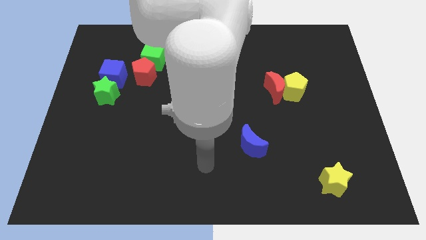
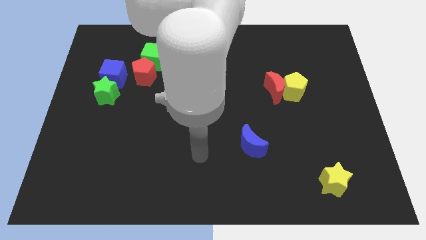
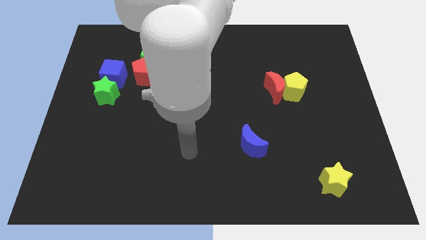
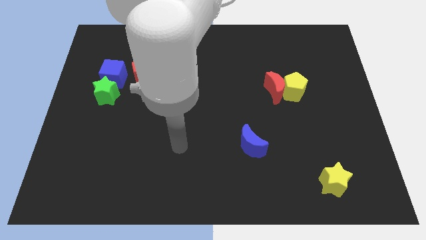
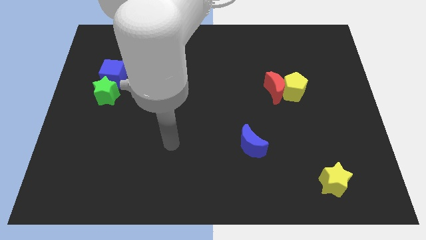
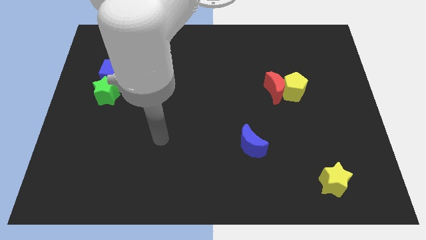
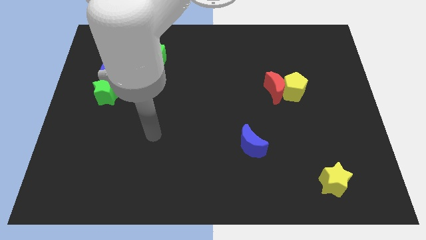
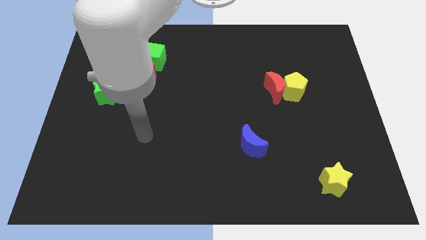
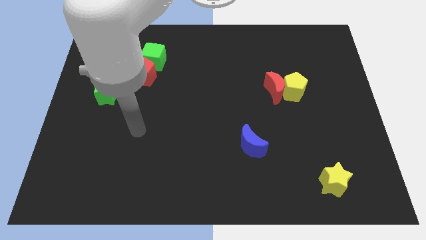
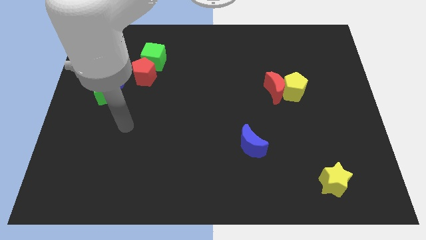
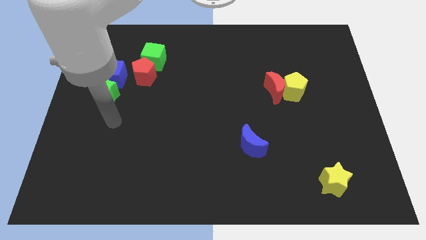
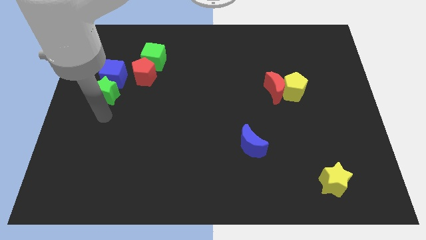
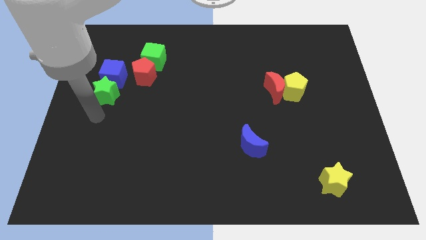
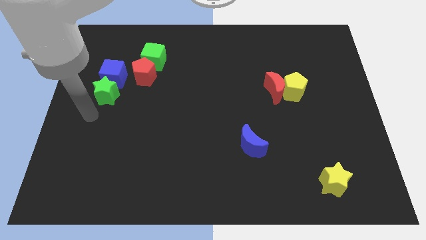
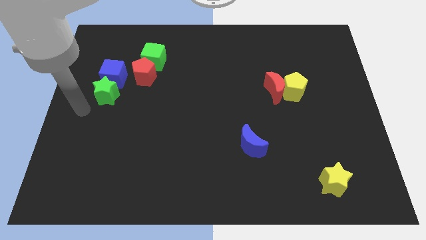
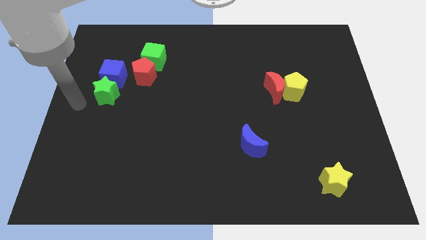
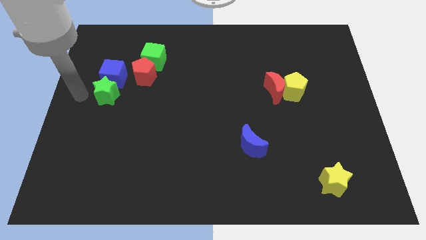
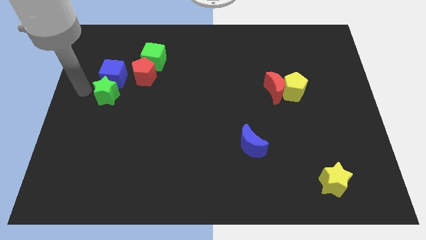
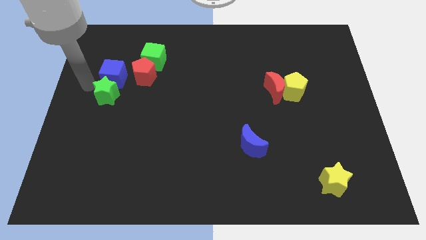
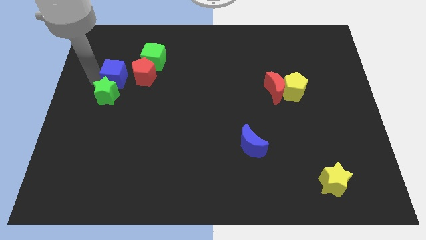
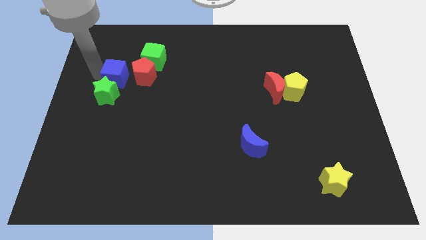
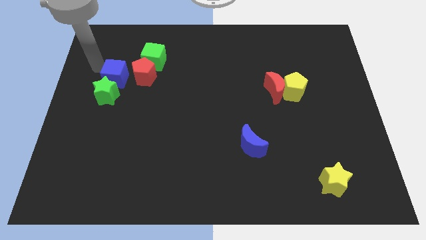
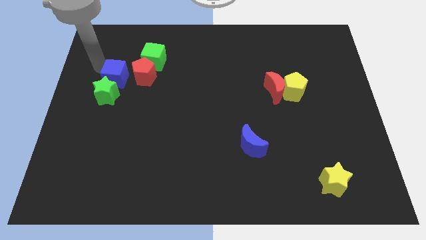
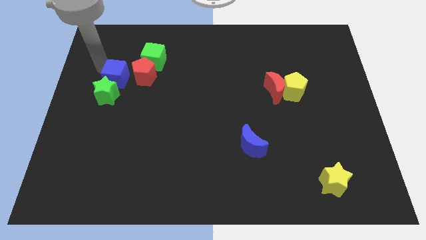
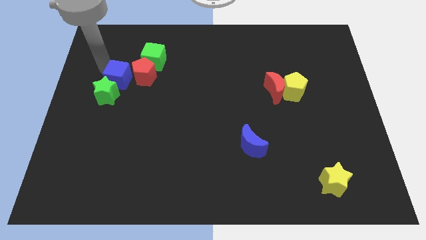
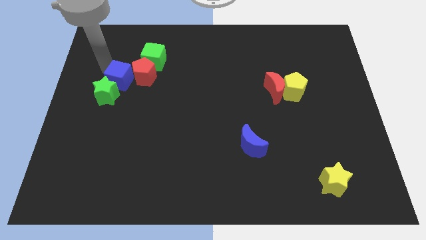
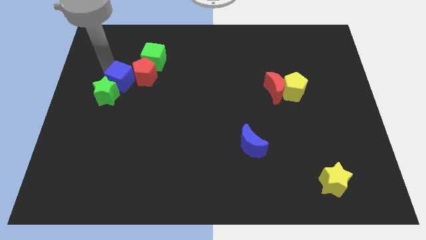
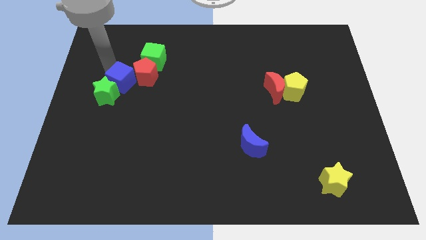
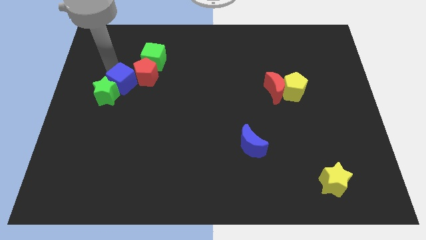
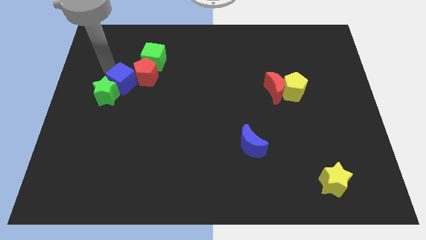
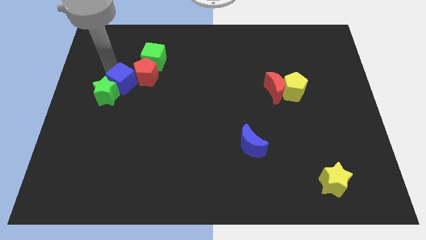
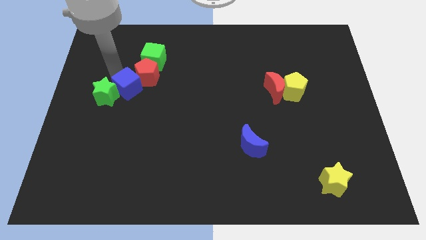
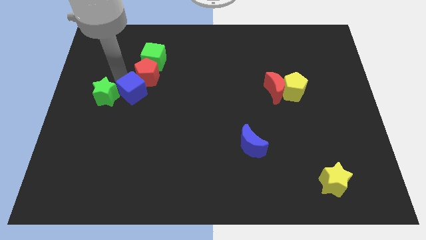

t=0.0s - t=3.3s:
push the blue cube down and then right slightly

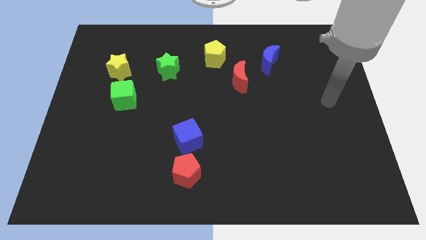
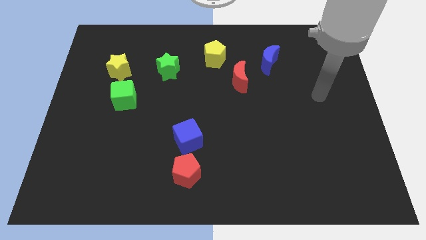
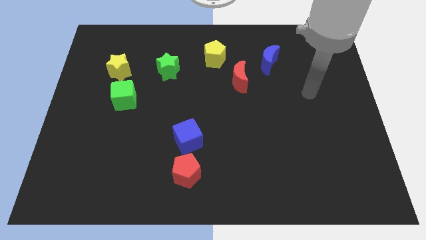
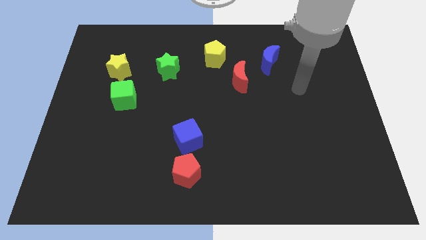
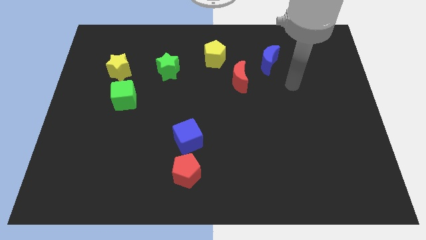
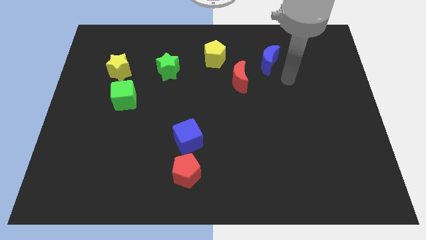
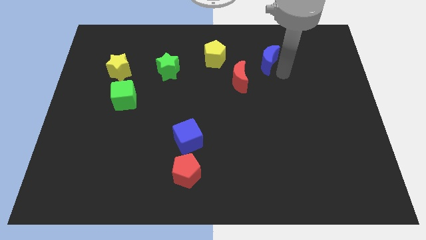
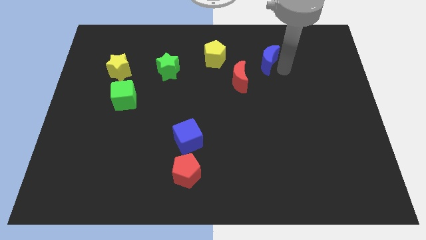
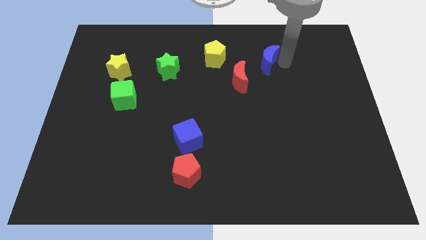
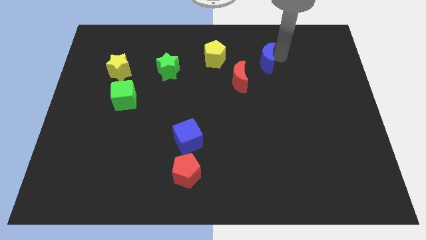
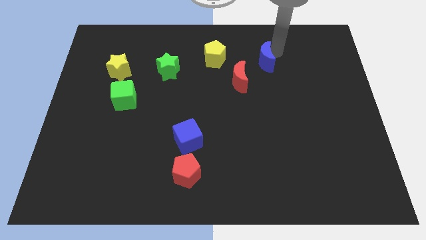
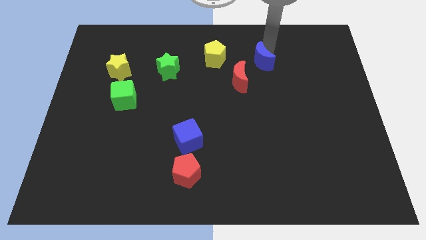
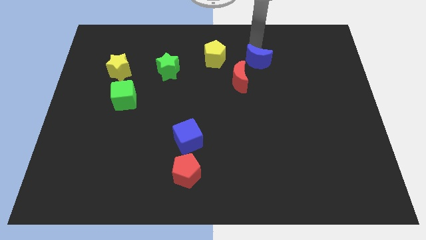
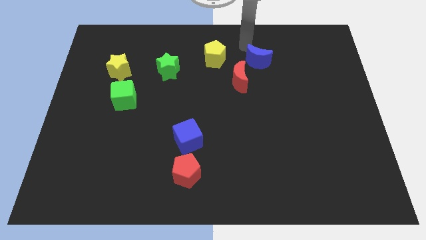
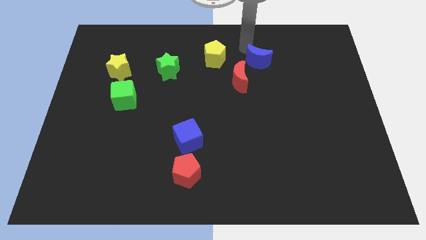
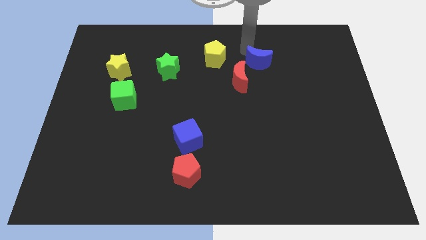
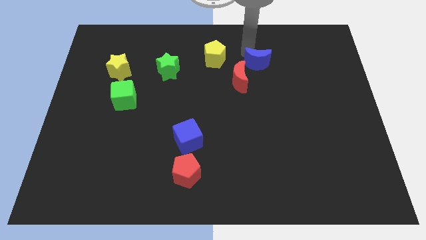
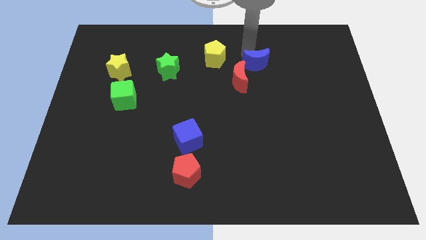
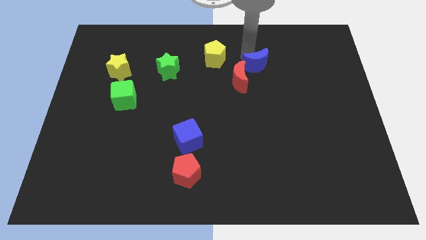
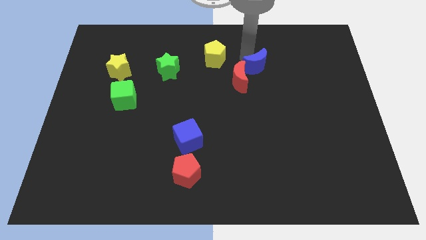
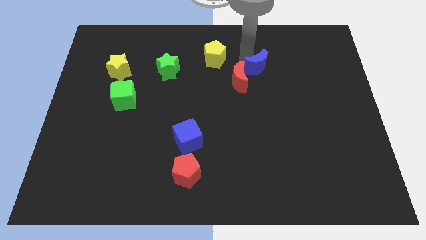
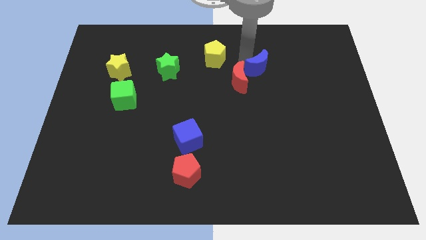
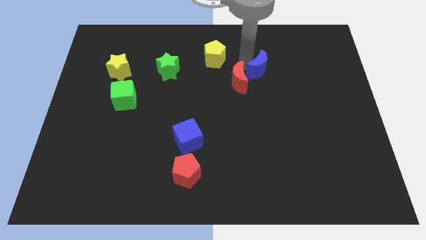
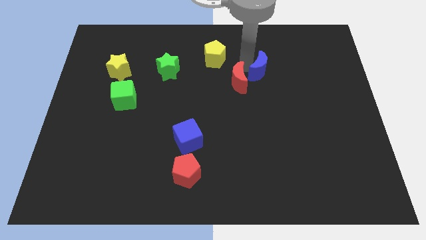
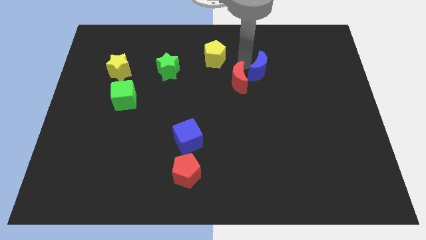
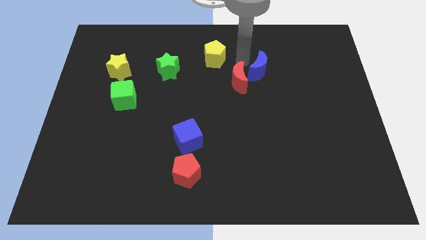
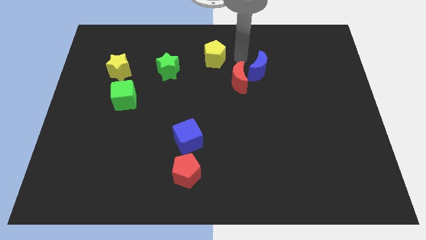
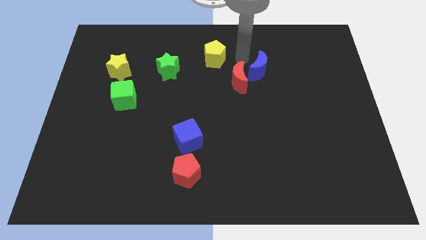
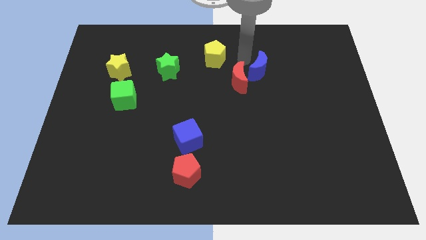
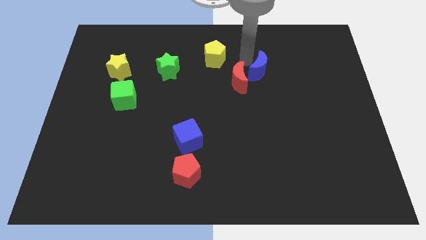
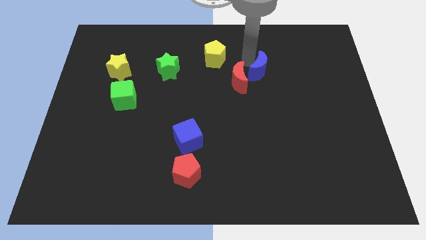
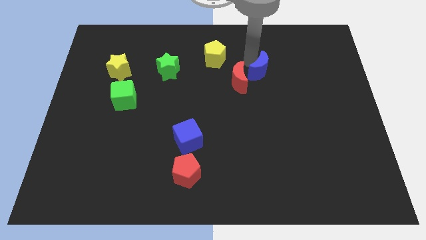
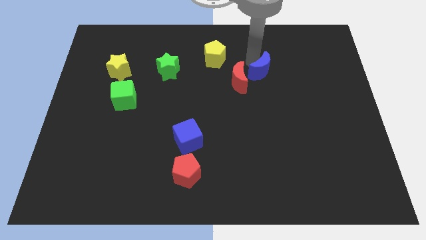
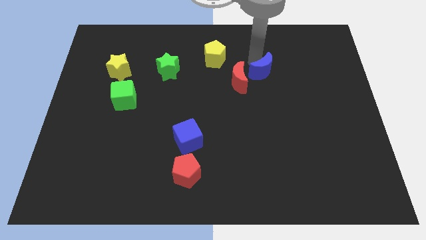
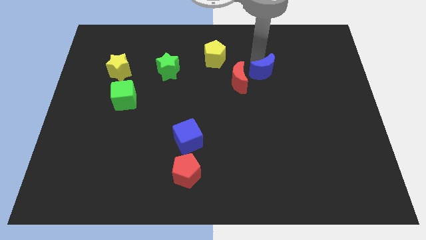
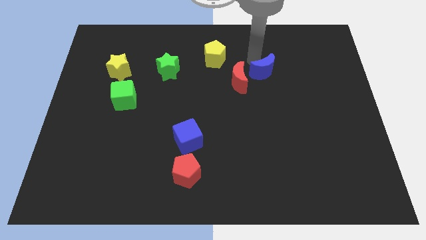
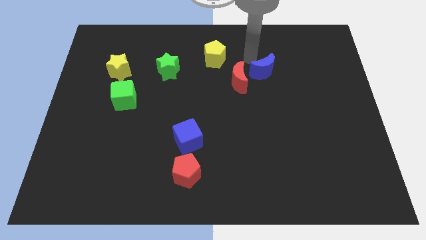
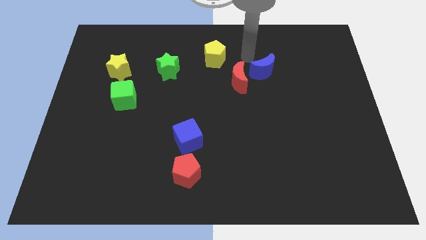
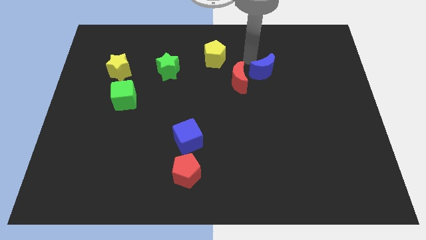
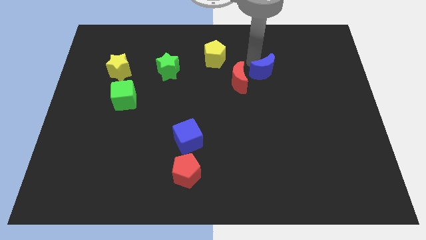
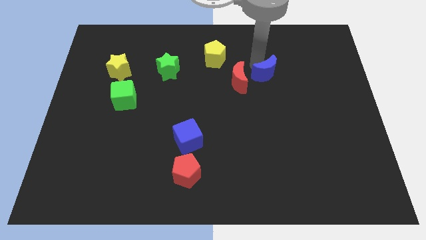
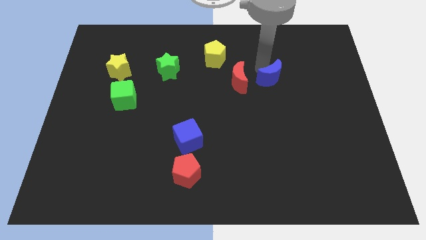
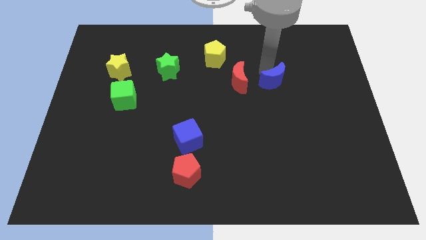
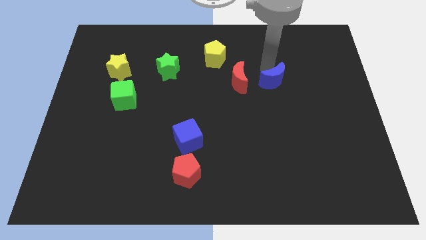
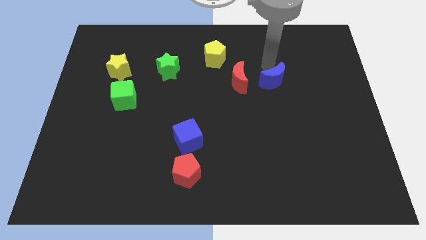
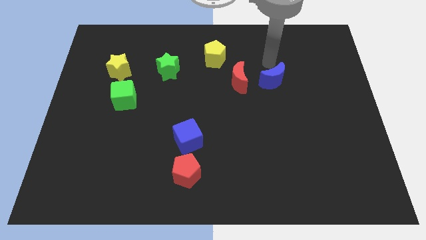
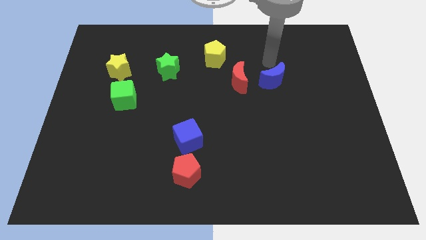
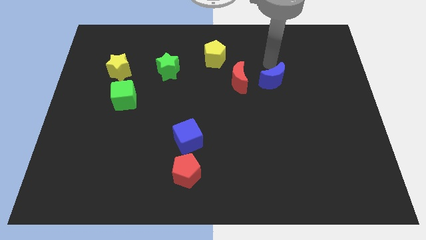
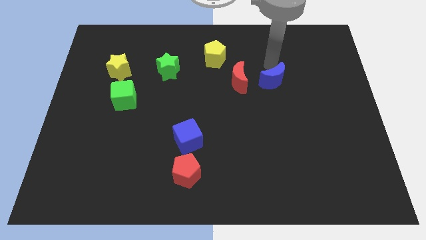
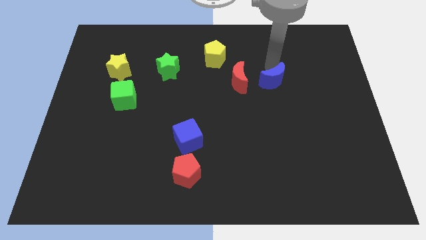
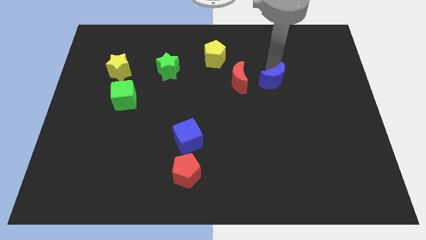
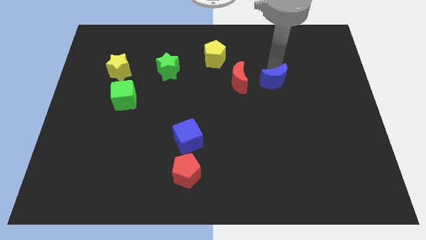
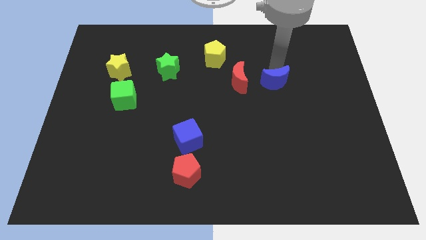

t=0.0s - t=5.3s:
move the blue moon down slightly
